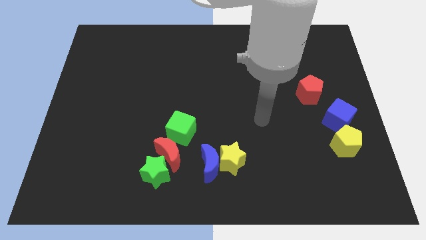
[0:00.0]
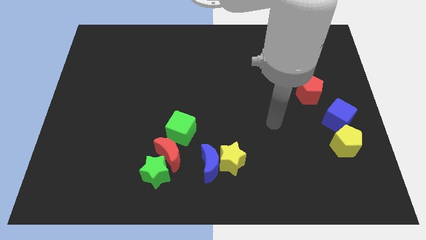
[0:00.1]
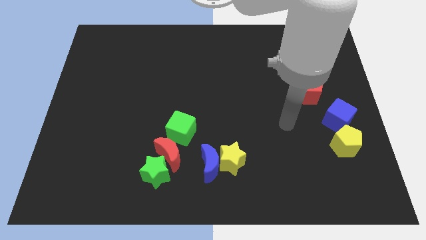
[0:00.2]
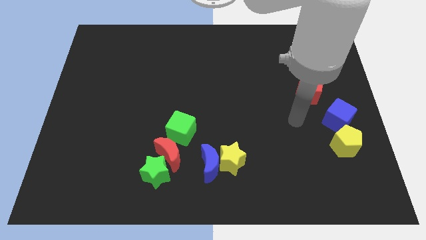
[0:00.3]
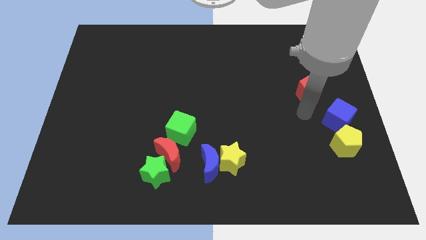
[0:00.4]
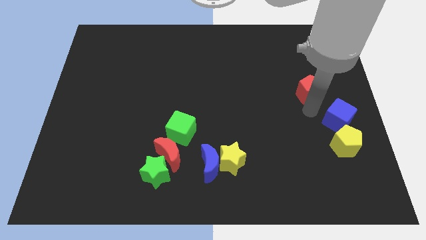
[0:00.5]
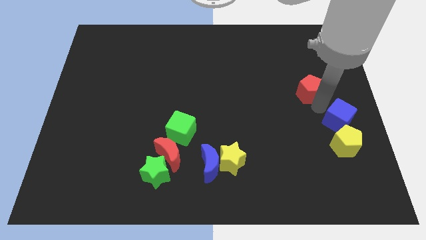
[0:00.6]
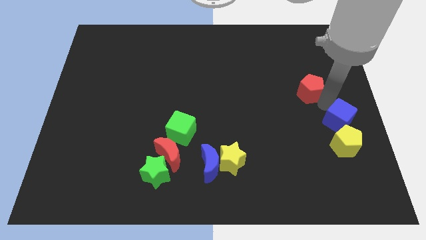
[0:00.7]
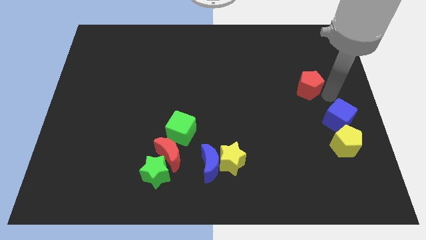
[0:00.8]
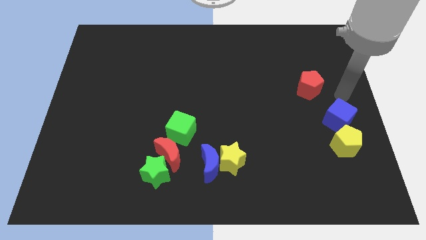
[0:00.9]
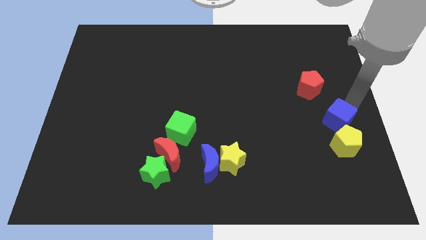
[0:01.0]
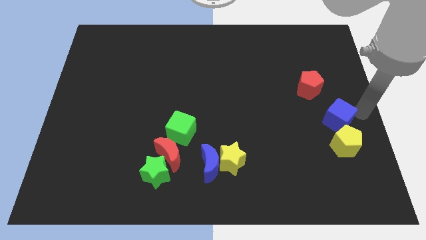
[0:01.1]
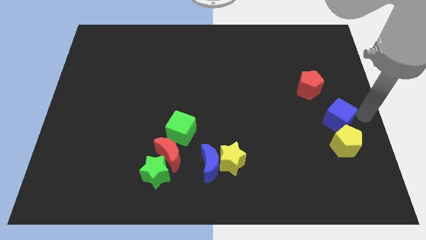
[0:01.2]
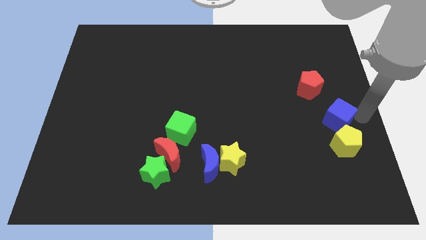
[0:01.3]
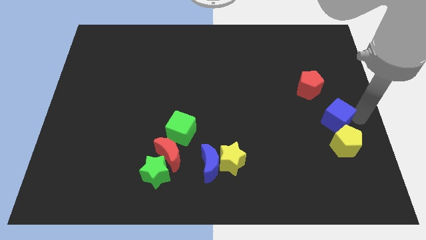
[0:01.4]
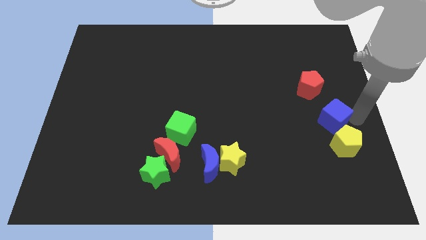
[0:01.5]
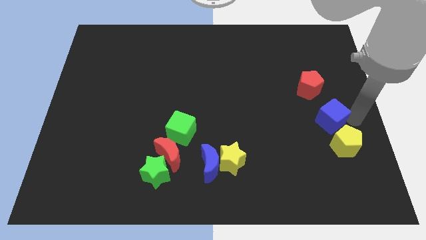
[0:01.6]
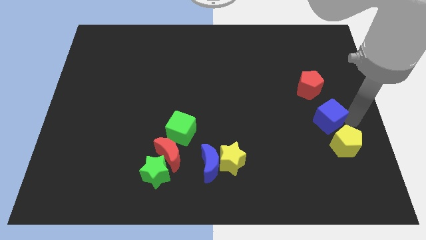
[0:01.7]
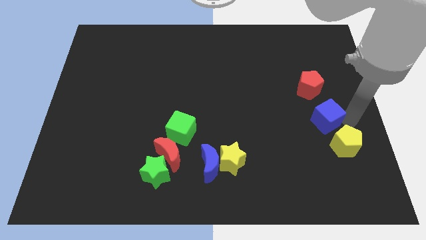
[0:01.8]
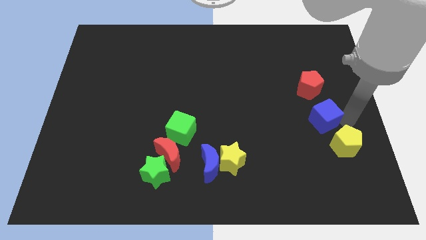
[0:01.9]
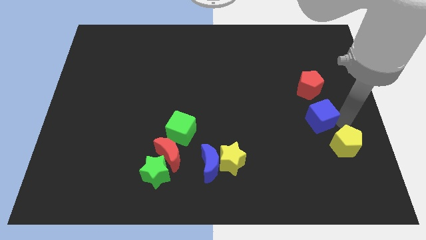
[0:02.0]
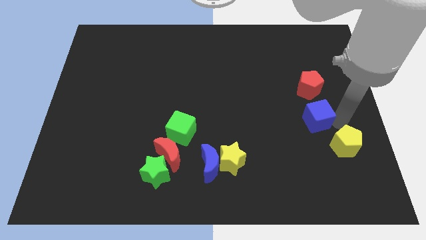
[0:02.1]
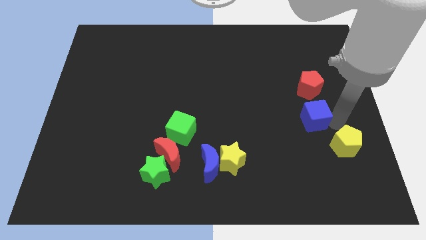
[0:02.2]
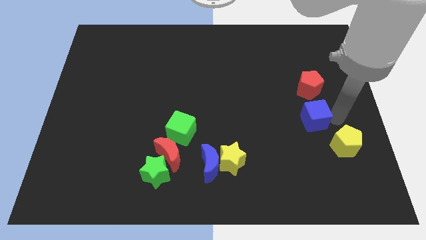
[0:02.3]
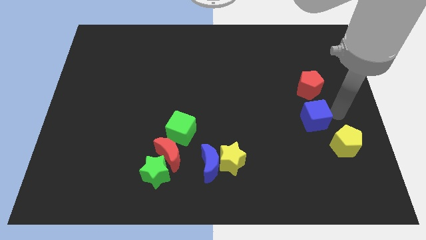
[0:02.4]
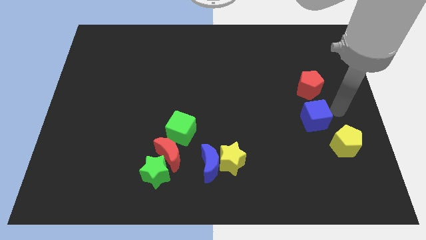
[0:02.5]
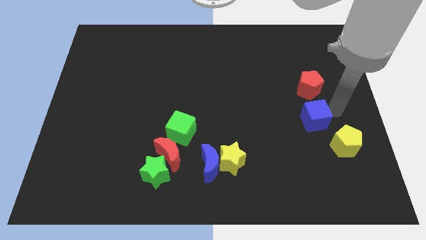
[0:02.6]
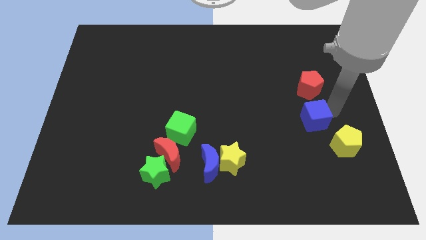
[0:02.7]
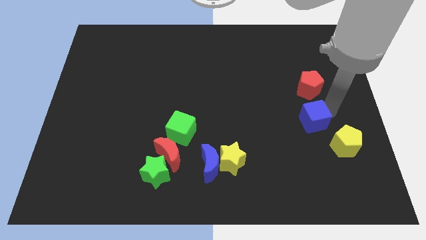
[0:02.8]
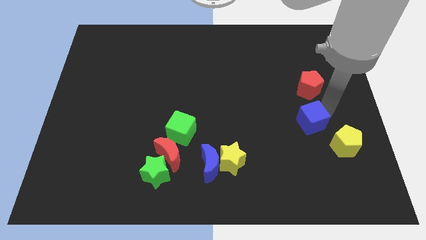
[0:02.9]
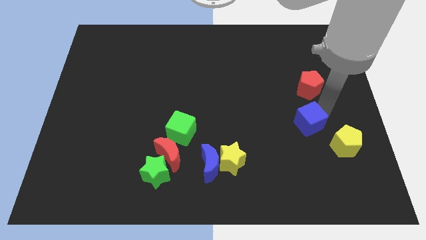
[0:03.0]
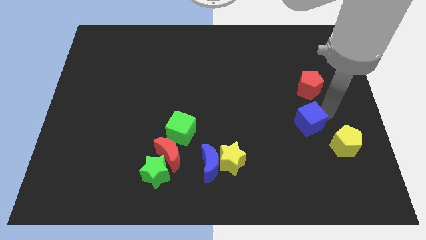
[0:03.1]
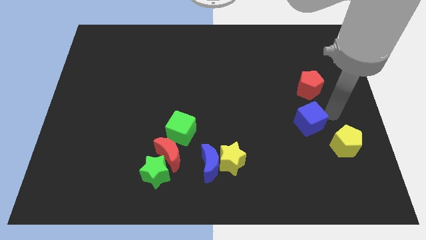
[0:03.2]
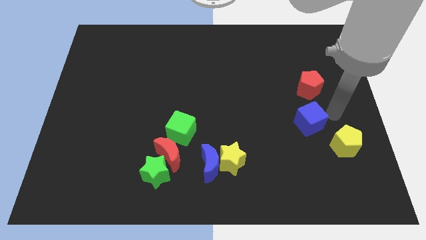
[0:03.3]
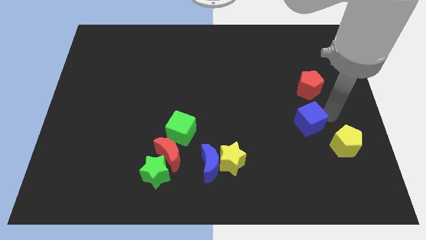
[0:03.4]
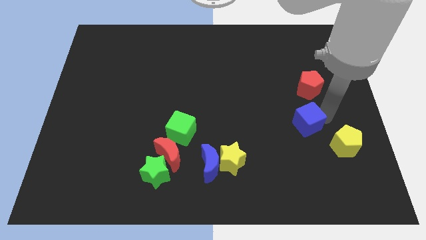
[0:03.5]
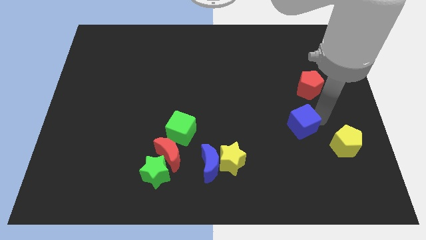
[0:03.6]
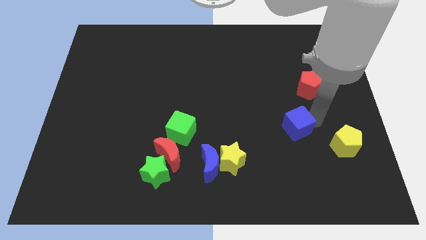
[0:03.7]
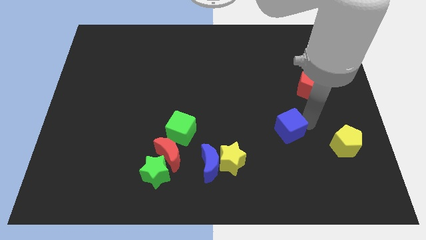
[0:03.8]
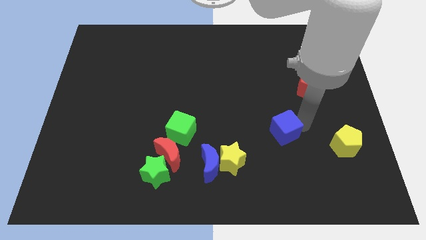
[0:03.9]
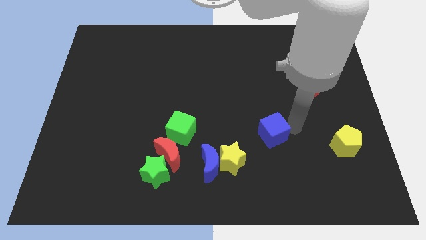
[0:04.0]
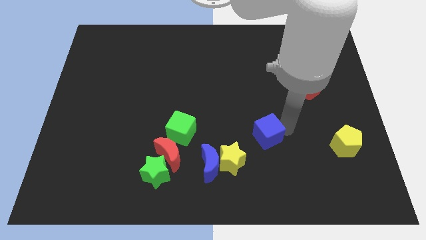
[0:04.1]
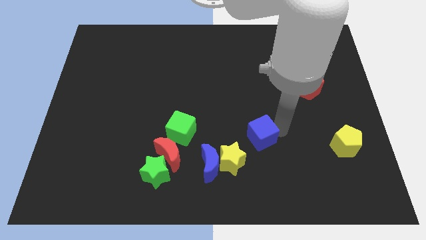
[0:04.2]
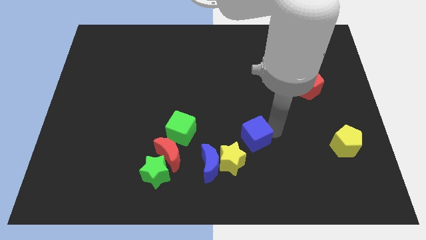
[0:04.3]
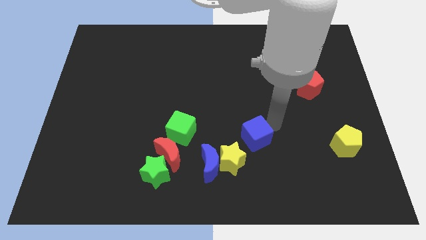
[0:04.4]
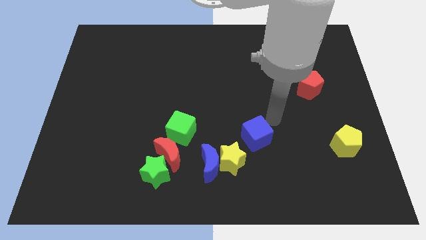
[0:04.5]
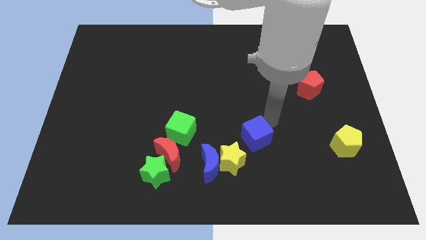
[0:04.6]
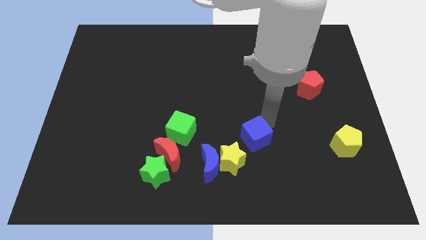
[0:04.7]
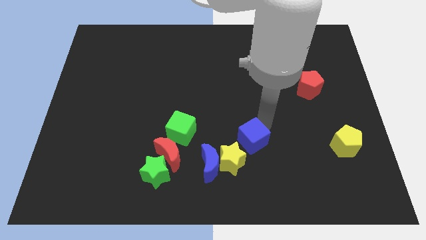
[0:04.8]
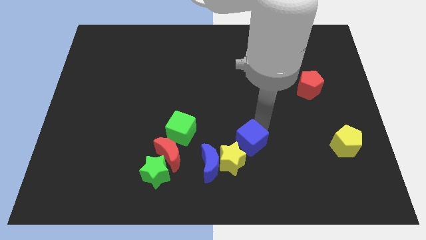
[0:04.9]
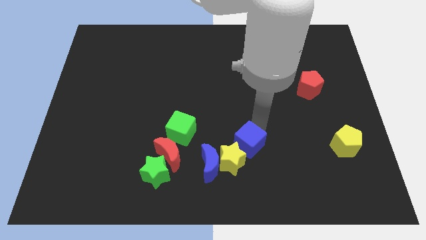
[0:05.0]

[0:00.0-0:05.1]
move the blue cube to the yellow star

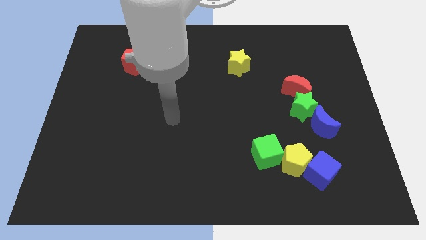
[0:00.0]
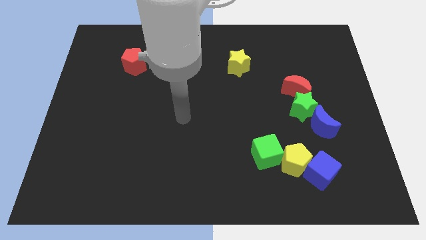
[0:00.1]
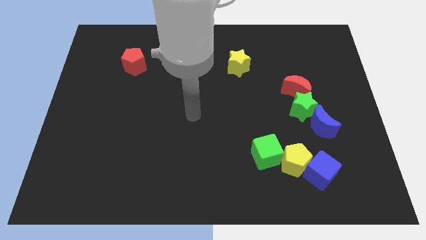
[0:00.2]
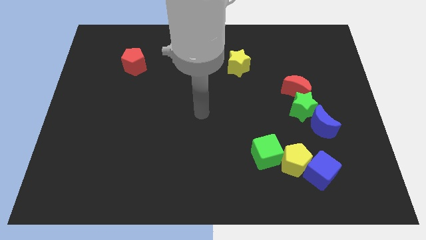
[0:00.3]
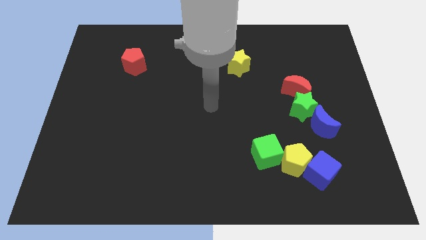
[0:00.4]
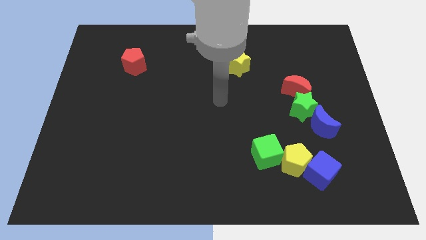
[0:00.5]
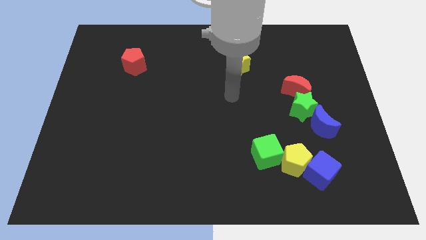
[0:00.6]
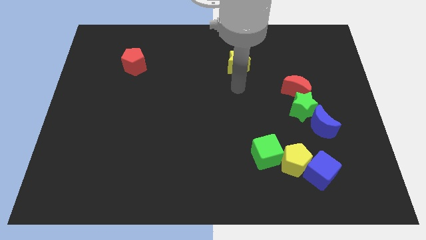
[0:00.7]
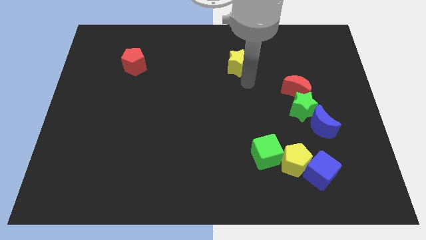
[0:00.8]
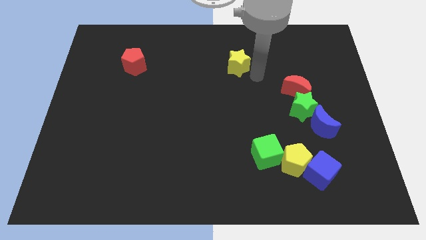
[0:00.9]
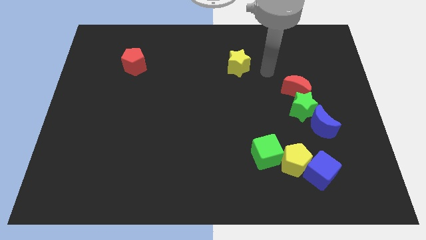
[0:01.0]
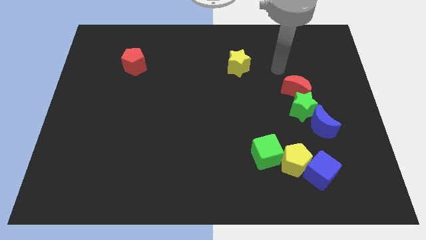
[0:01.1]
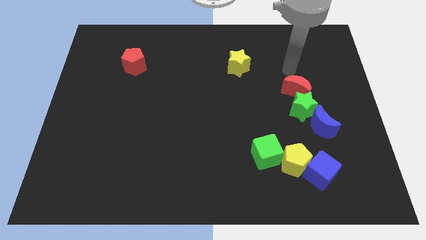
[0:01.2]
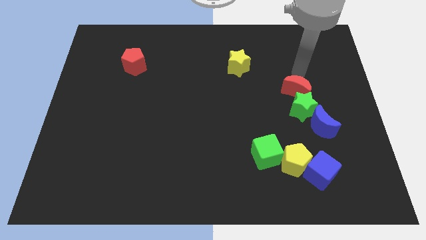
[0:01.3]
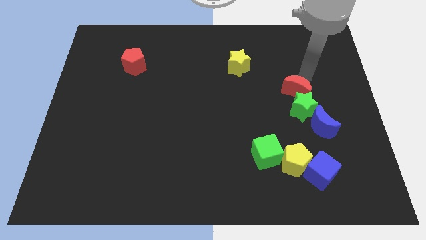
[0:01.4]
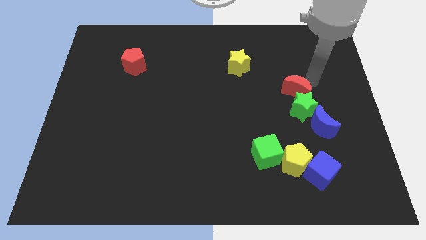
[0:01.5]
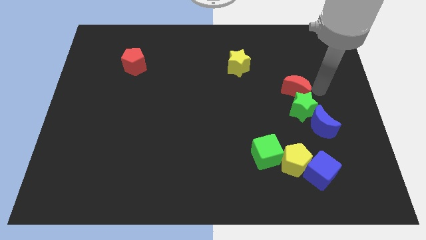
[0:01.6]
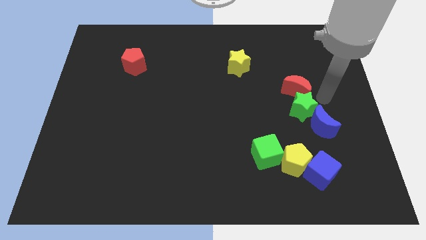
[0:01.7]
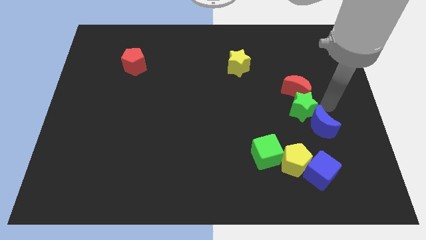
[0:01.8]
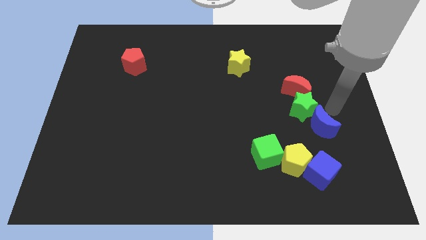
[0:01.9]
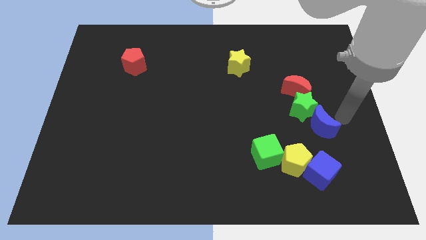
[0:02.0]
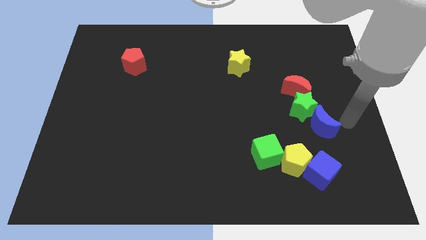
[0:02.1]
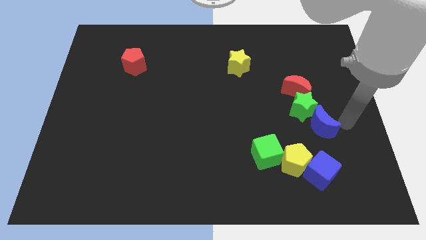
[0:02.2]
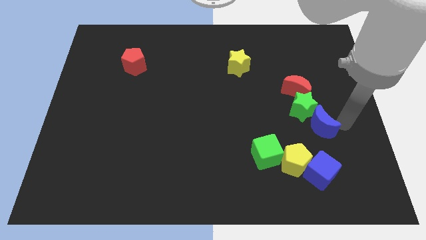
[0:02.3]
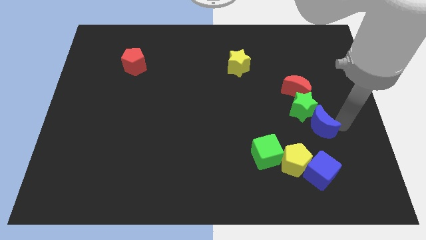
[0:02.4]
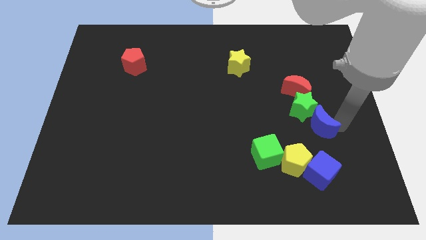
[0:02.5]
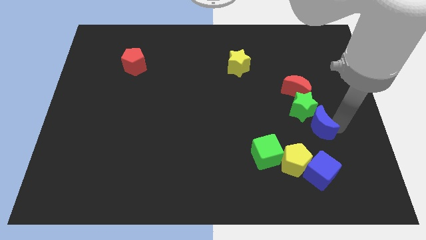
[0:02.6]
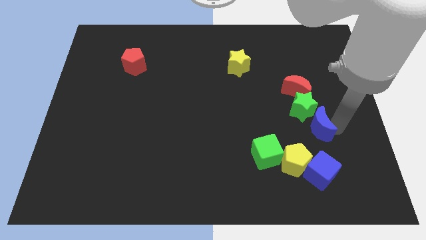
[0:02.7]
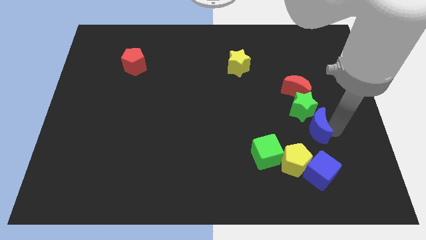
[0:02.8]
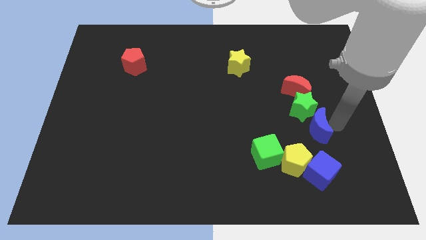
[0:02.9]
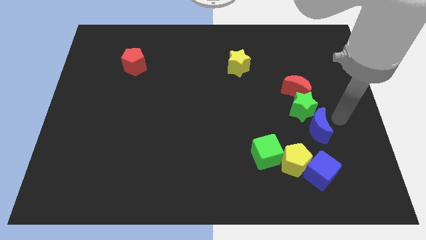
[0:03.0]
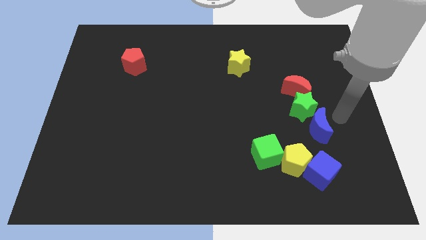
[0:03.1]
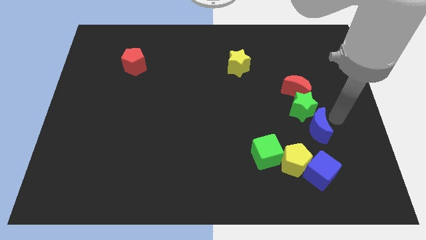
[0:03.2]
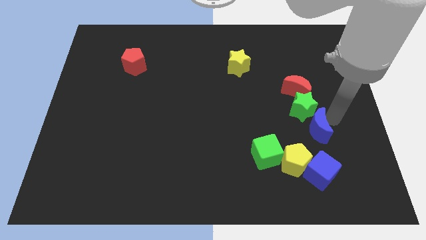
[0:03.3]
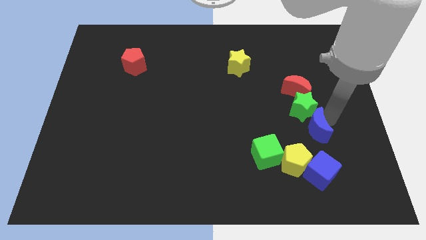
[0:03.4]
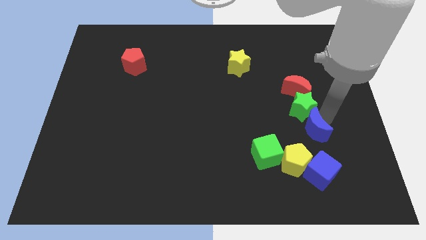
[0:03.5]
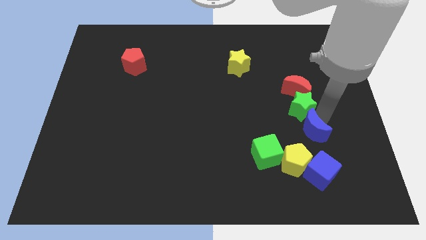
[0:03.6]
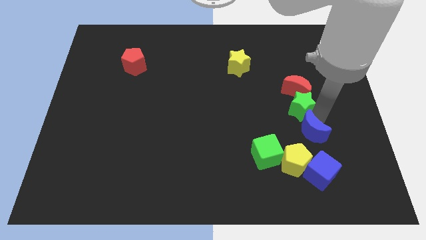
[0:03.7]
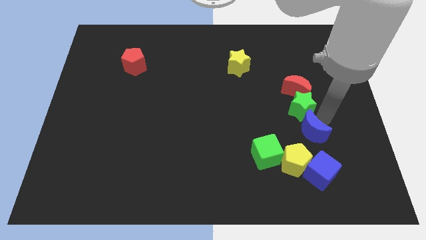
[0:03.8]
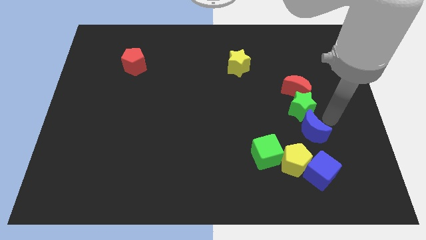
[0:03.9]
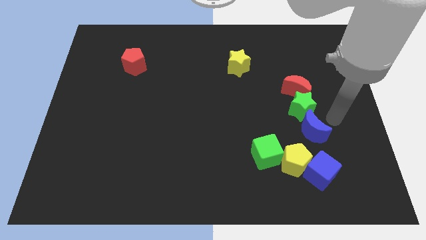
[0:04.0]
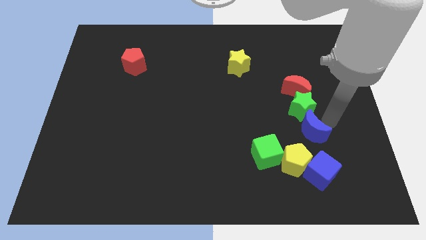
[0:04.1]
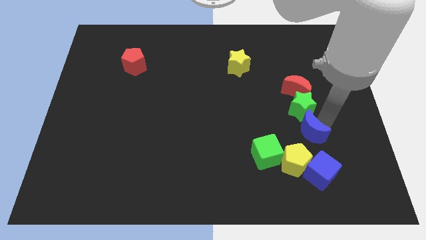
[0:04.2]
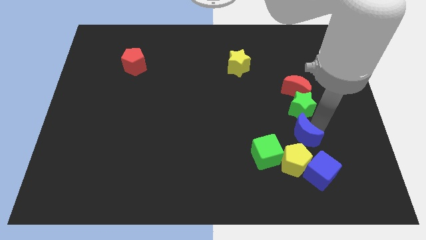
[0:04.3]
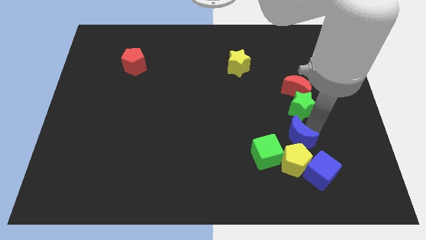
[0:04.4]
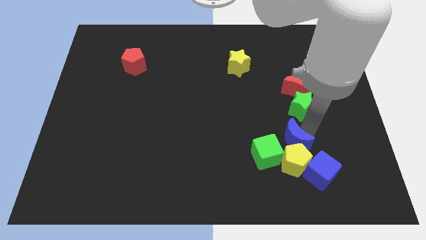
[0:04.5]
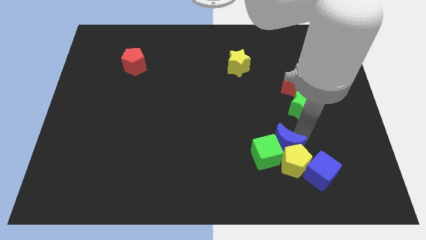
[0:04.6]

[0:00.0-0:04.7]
move the blue moon close to the green cube
